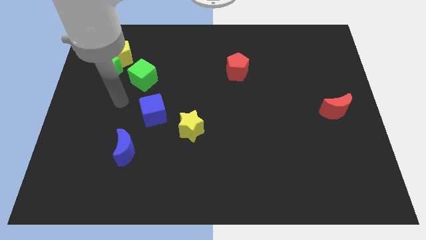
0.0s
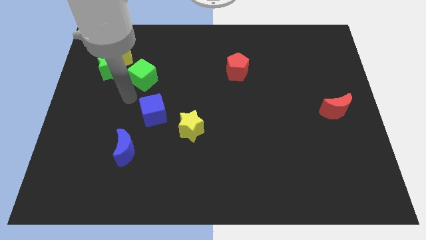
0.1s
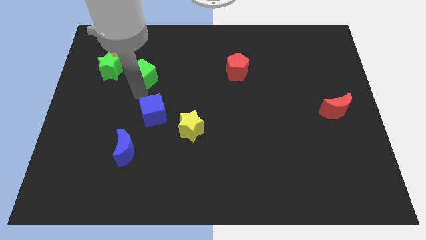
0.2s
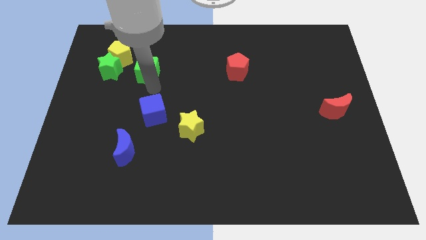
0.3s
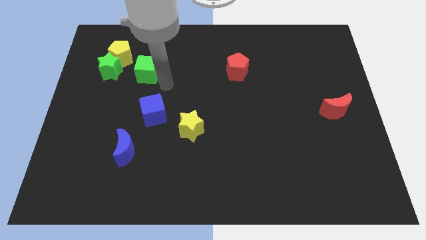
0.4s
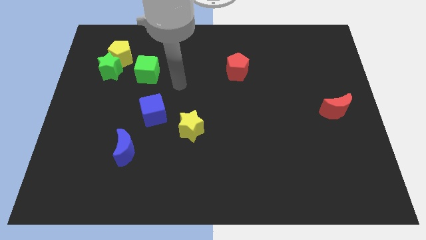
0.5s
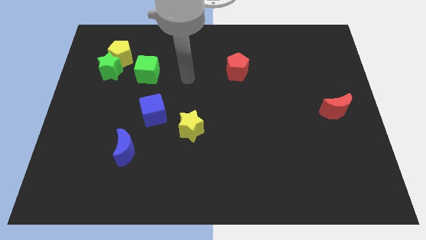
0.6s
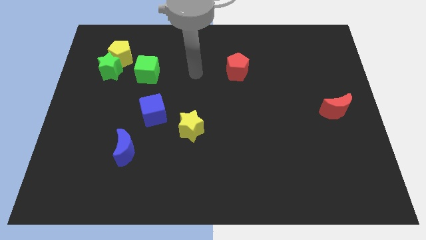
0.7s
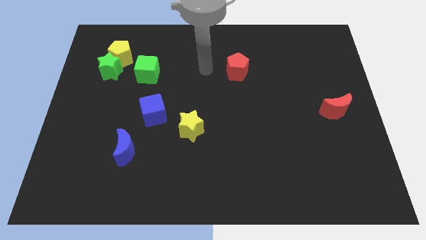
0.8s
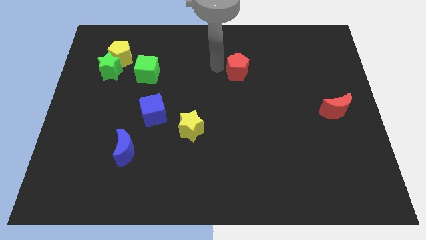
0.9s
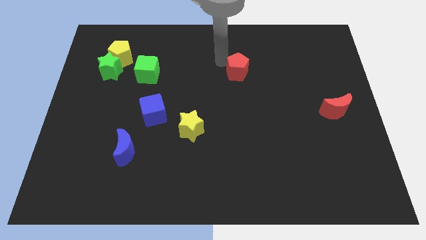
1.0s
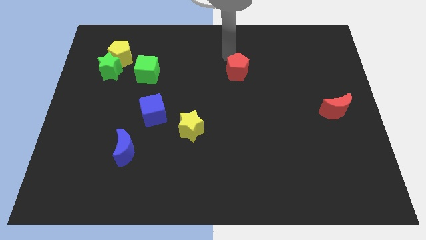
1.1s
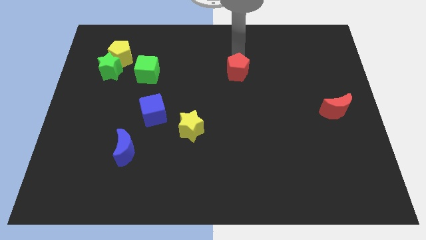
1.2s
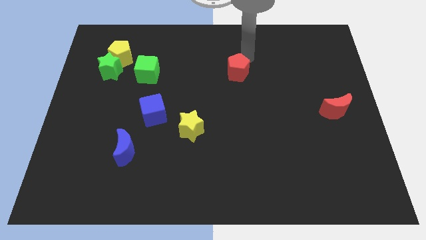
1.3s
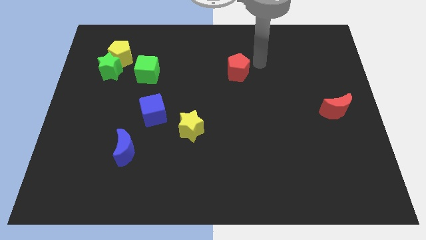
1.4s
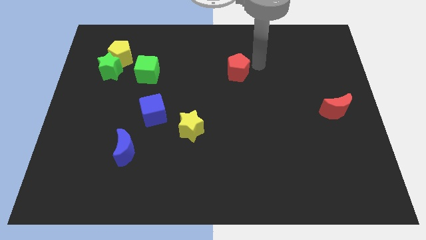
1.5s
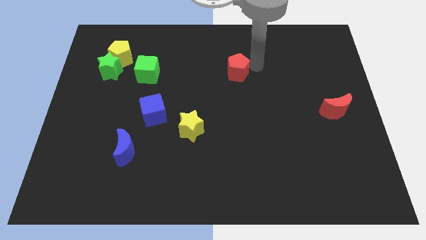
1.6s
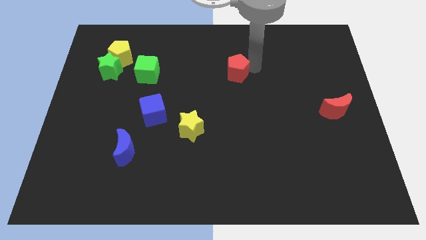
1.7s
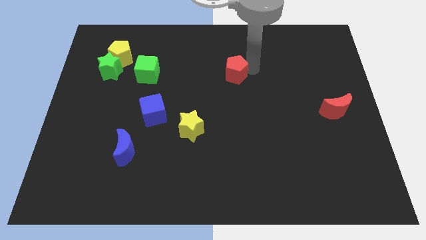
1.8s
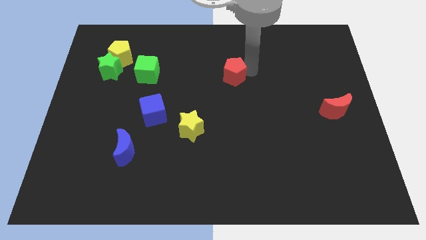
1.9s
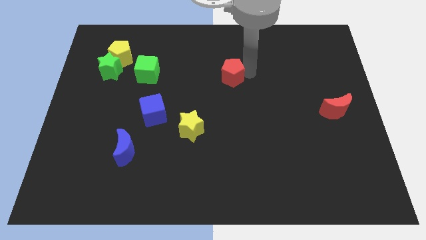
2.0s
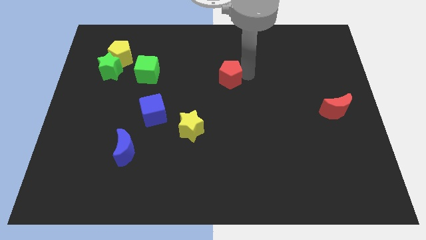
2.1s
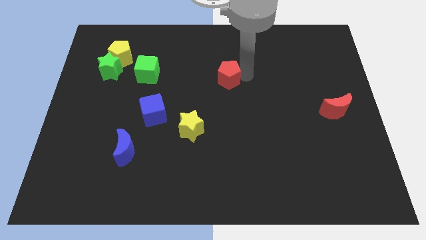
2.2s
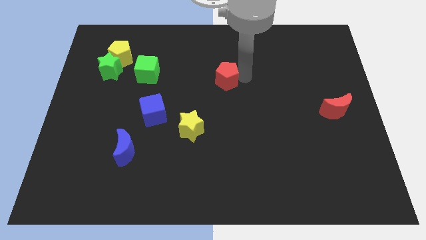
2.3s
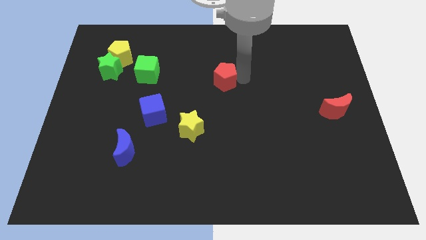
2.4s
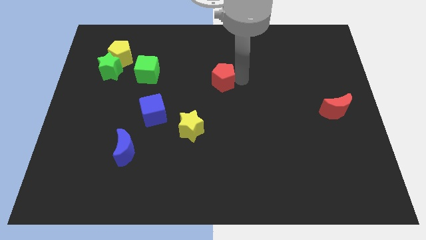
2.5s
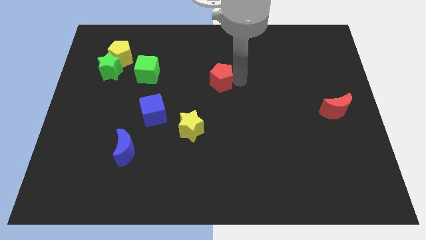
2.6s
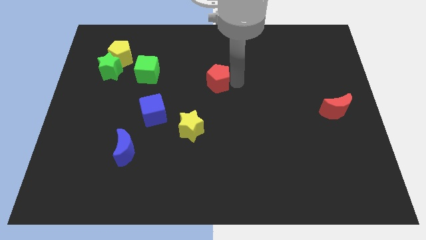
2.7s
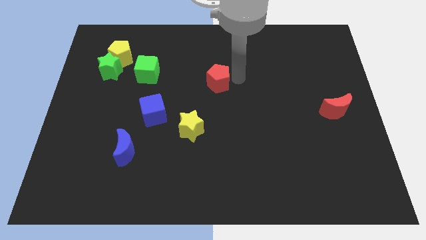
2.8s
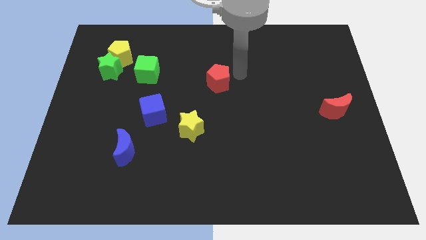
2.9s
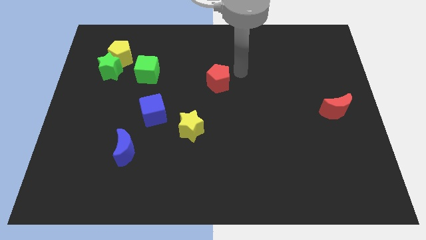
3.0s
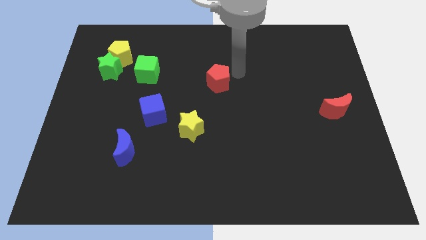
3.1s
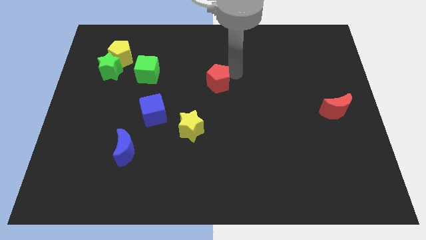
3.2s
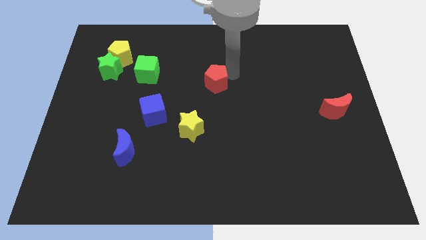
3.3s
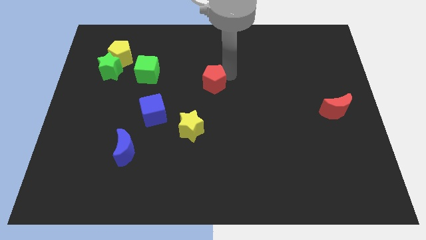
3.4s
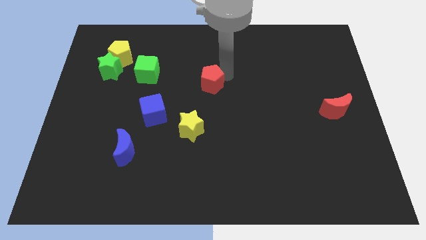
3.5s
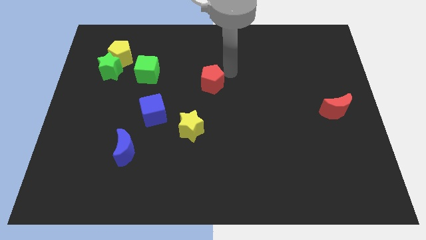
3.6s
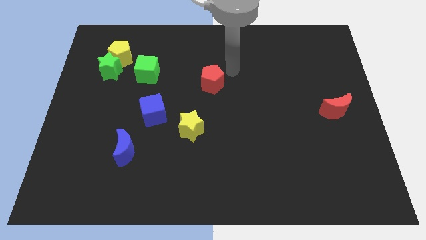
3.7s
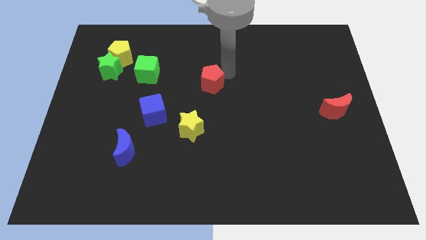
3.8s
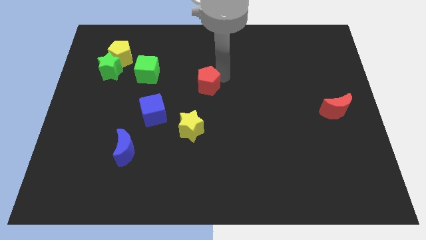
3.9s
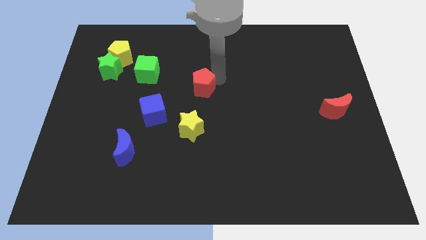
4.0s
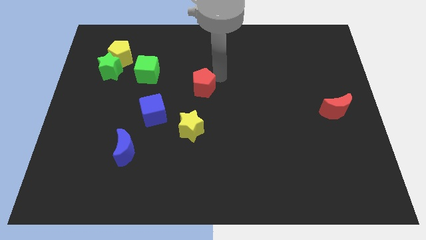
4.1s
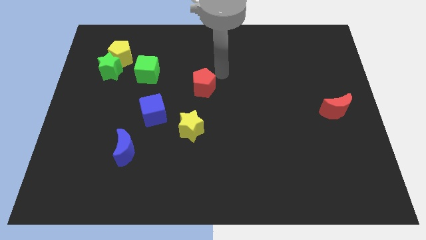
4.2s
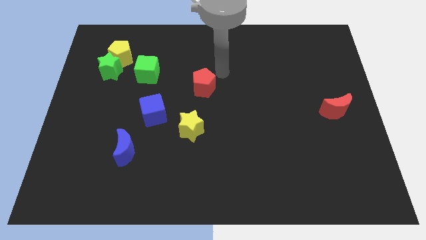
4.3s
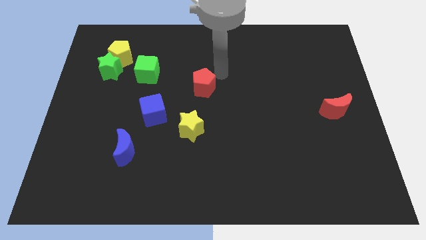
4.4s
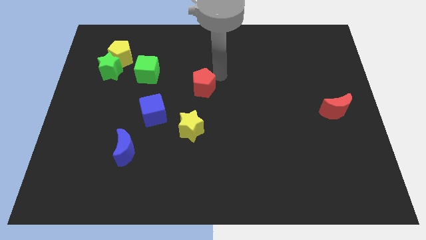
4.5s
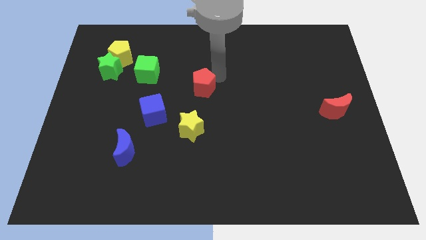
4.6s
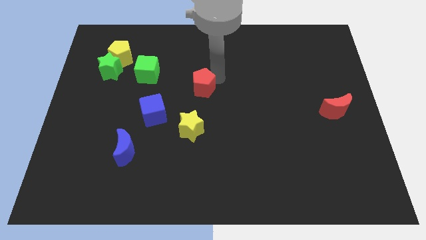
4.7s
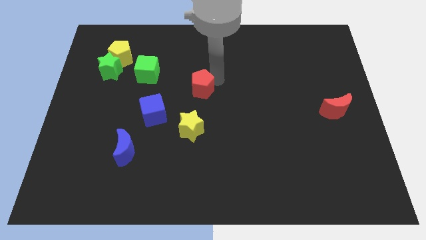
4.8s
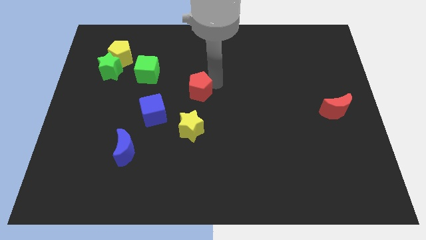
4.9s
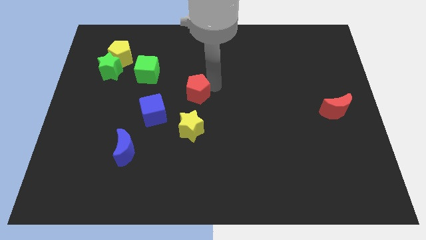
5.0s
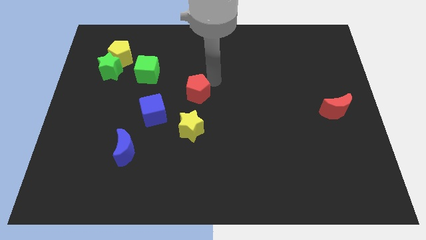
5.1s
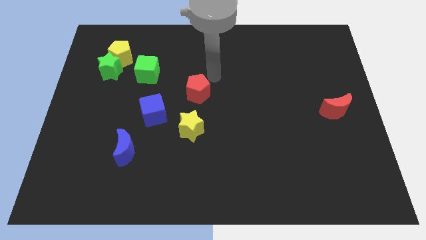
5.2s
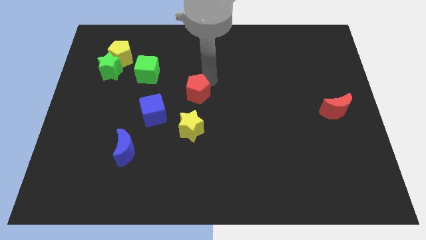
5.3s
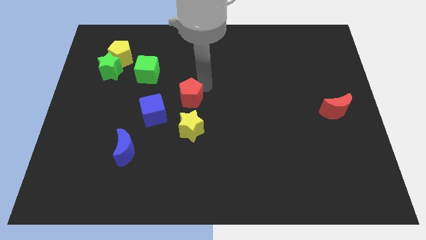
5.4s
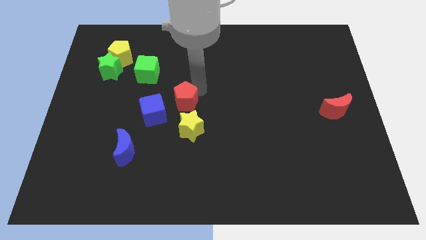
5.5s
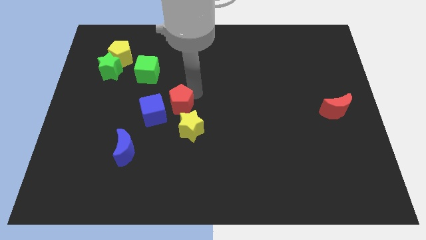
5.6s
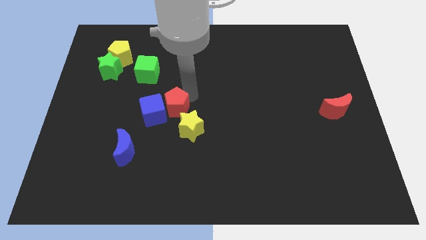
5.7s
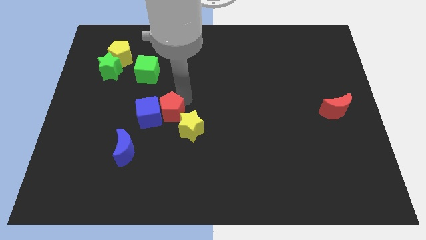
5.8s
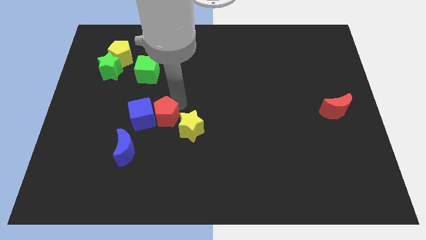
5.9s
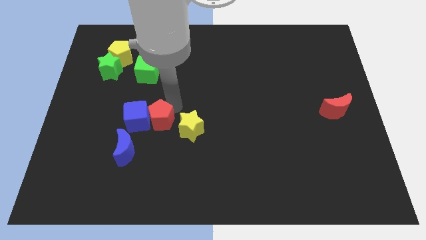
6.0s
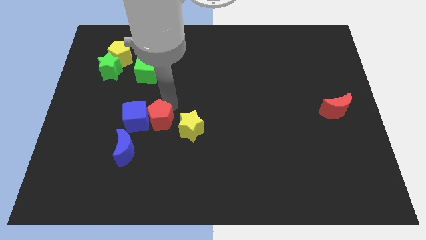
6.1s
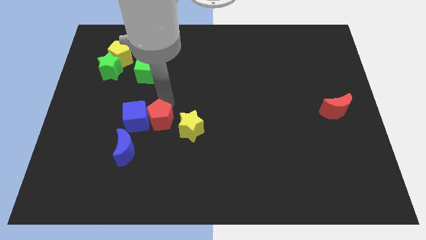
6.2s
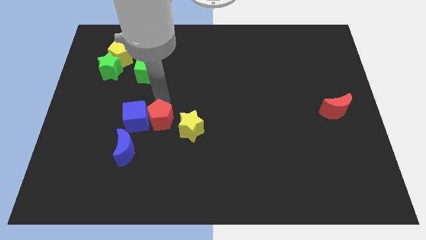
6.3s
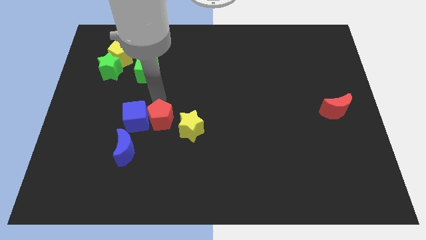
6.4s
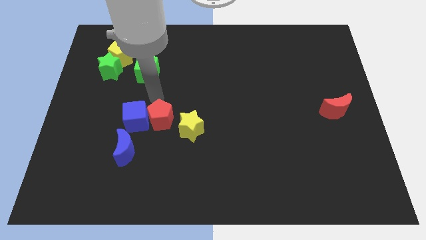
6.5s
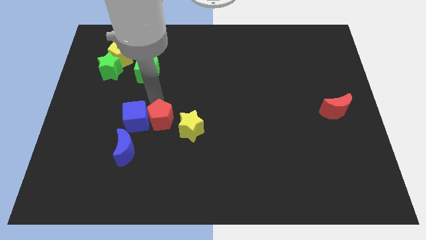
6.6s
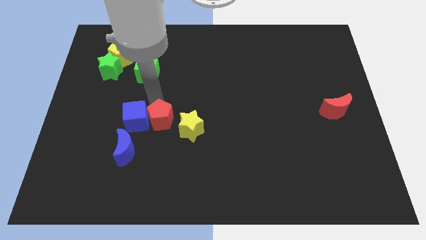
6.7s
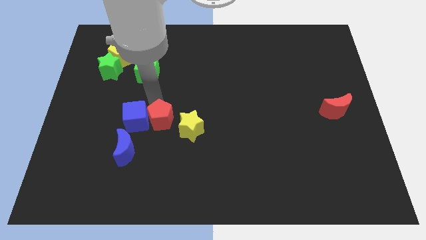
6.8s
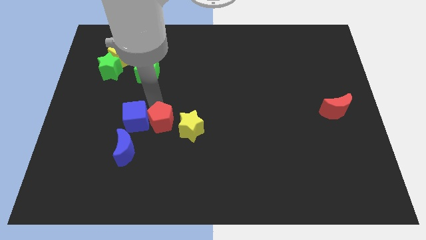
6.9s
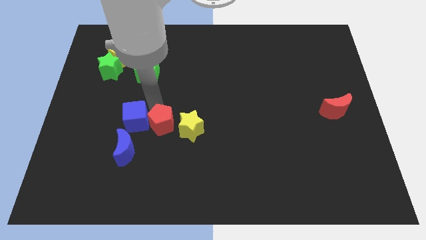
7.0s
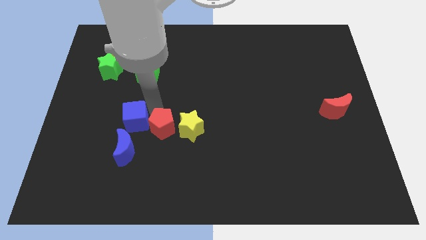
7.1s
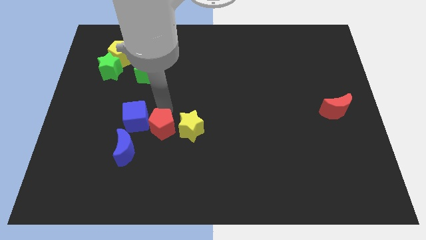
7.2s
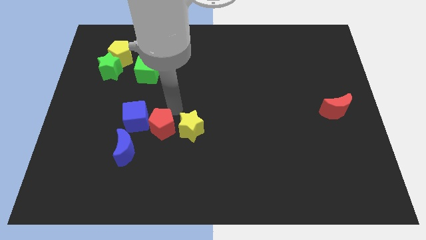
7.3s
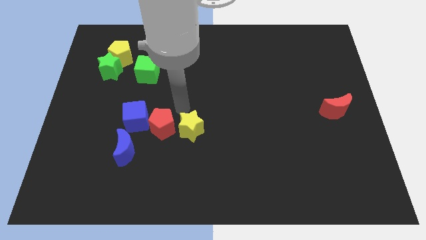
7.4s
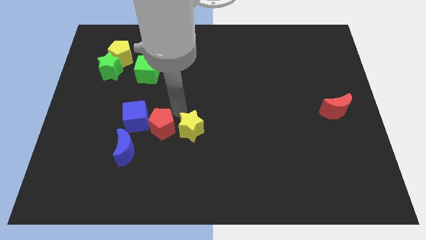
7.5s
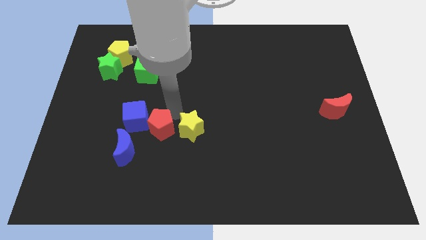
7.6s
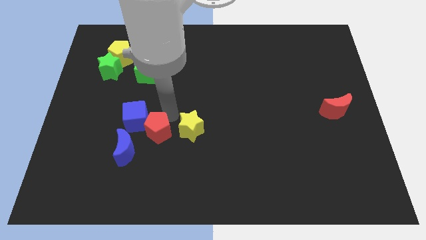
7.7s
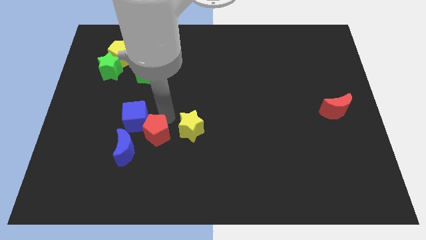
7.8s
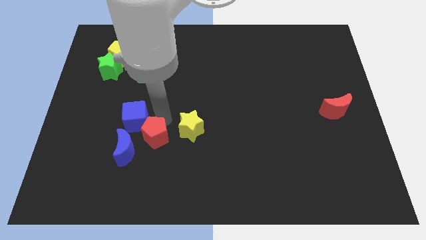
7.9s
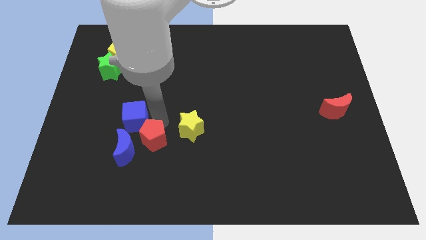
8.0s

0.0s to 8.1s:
push the red pentagon to the bottom of the blue cube
